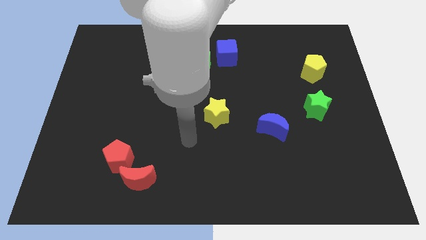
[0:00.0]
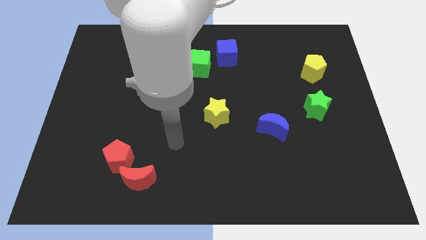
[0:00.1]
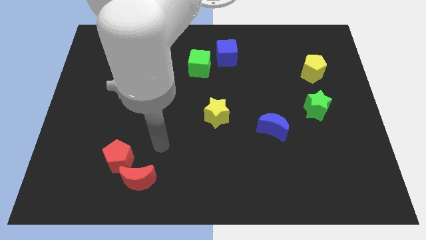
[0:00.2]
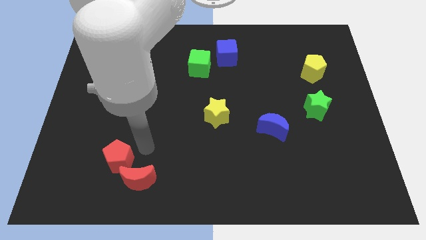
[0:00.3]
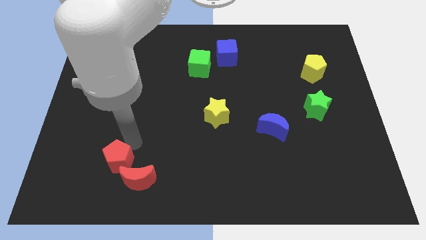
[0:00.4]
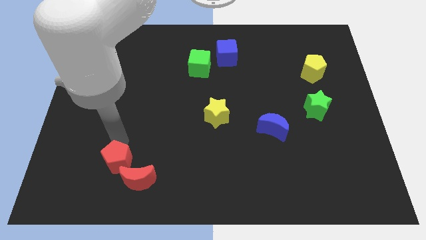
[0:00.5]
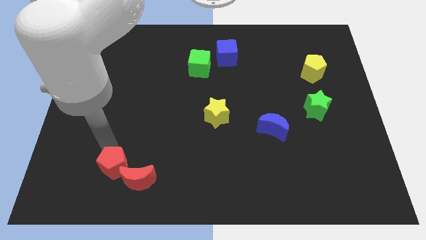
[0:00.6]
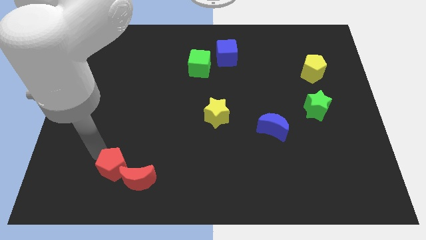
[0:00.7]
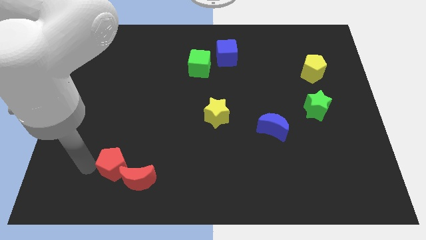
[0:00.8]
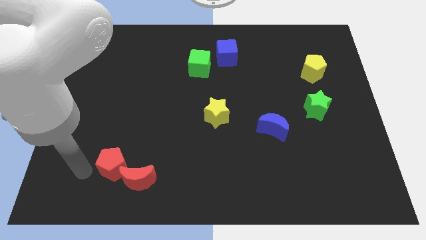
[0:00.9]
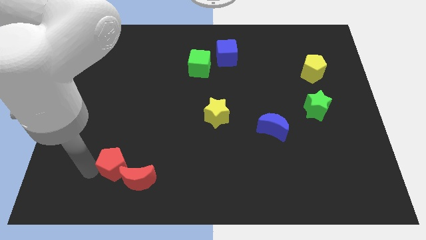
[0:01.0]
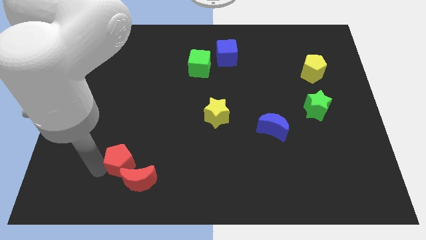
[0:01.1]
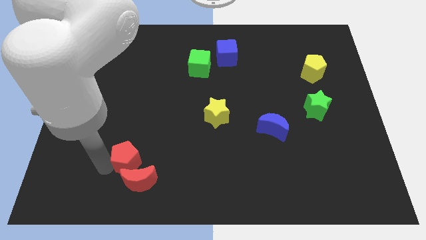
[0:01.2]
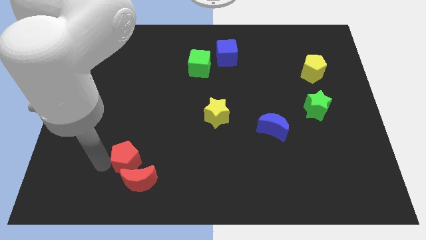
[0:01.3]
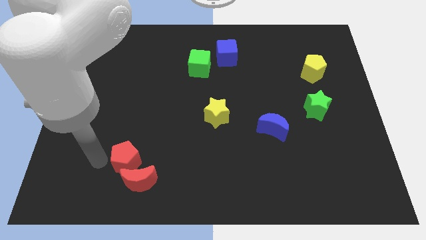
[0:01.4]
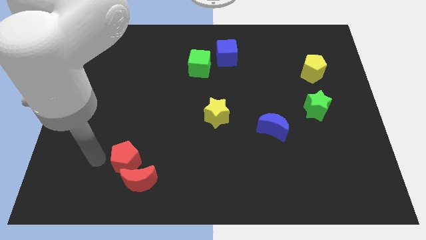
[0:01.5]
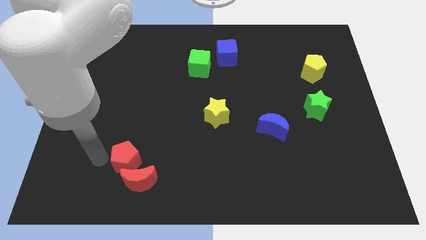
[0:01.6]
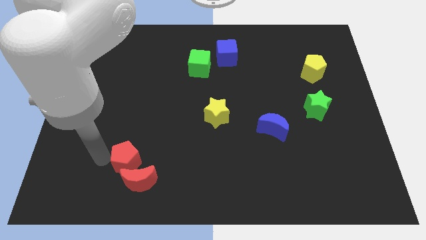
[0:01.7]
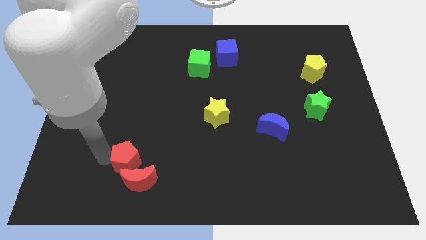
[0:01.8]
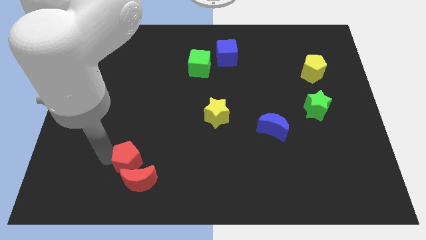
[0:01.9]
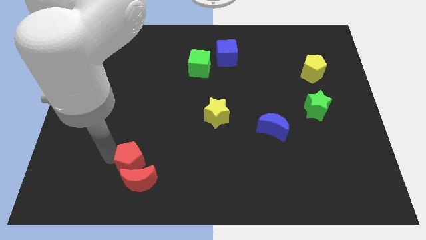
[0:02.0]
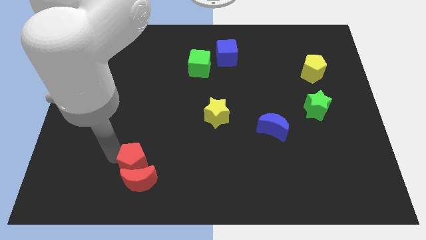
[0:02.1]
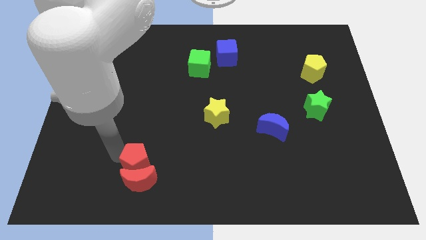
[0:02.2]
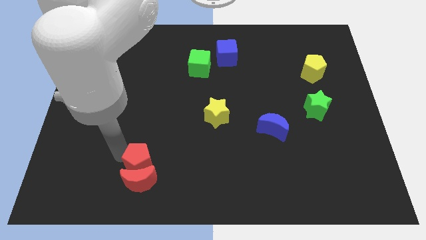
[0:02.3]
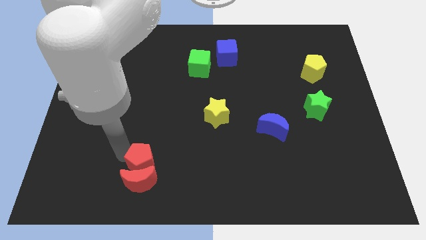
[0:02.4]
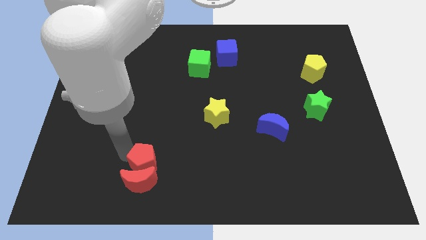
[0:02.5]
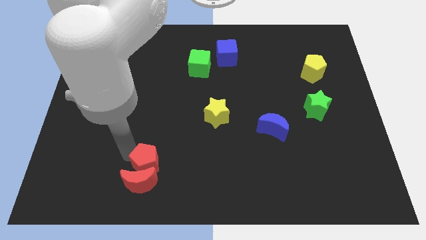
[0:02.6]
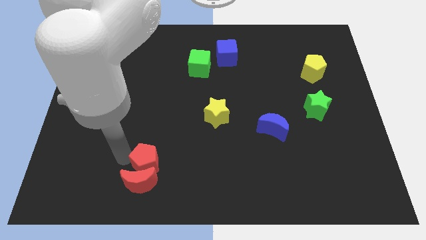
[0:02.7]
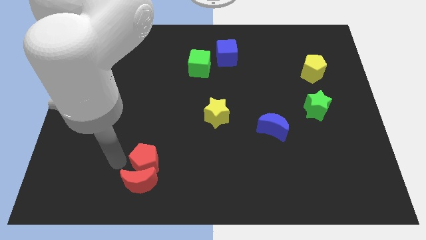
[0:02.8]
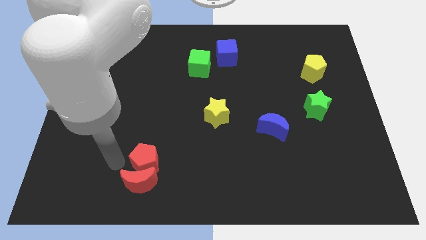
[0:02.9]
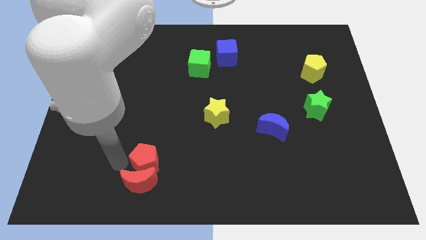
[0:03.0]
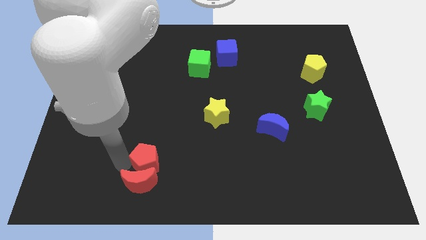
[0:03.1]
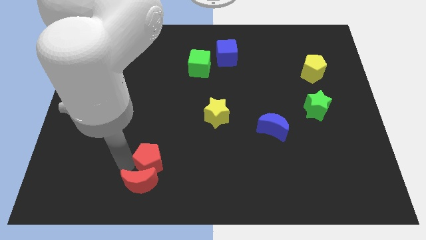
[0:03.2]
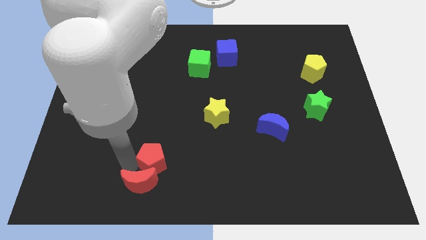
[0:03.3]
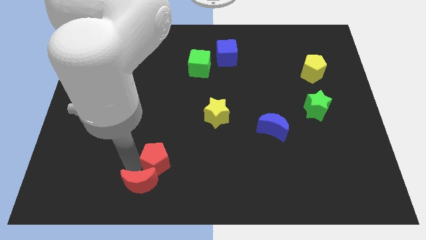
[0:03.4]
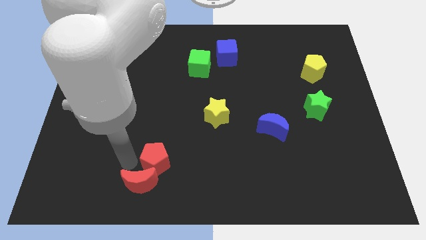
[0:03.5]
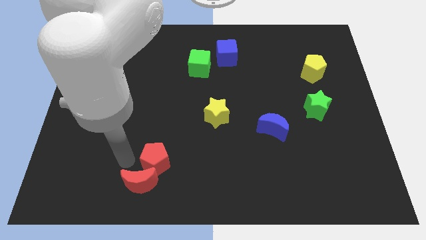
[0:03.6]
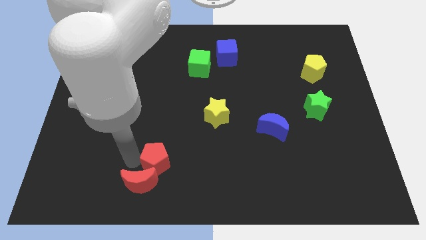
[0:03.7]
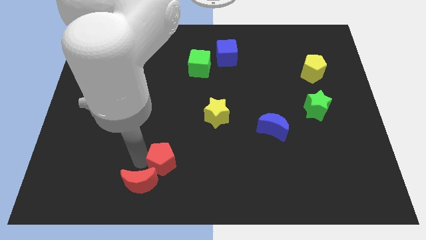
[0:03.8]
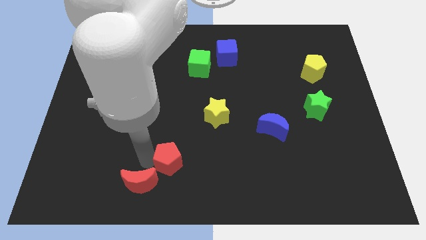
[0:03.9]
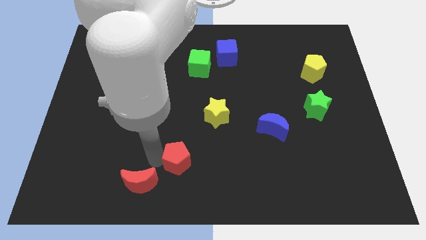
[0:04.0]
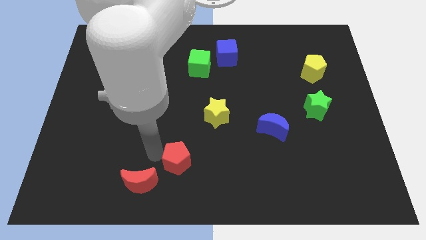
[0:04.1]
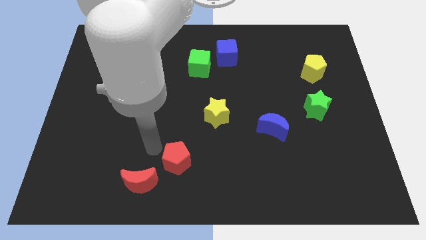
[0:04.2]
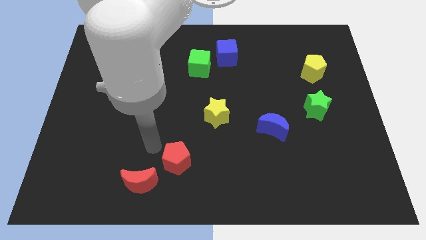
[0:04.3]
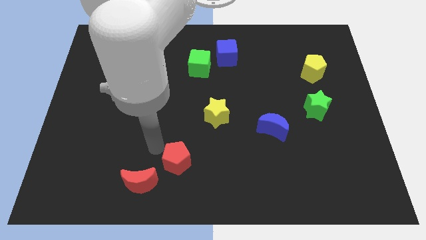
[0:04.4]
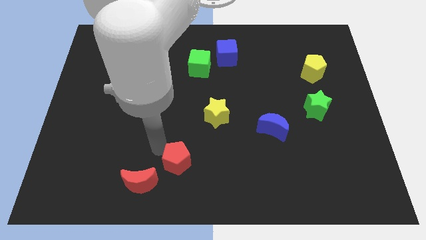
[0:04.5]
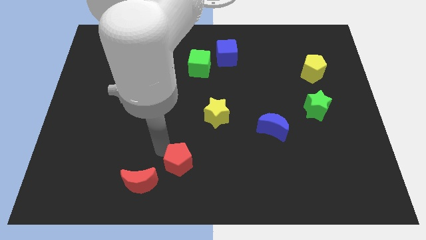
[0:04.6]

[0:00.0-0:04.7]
put the red pentagon to the bottom side

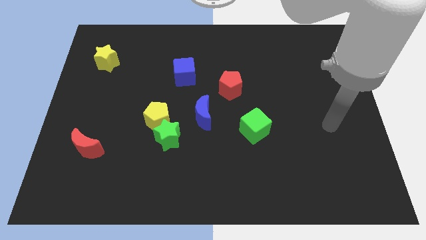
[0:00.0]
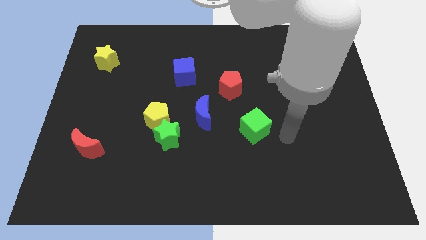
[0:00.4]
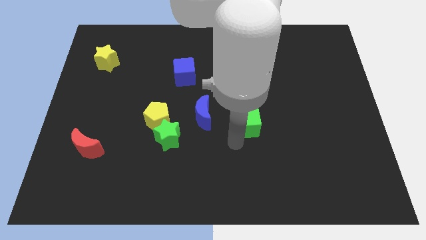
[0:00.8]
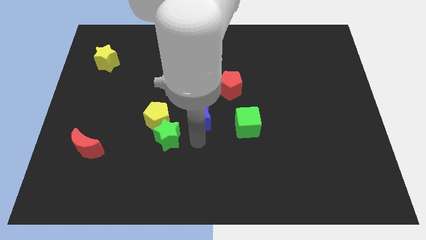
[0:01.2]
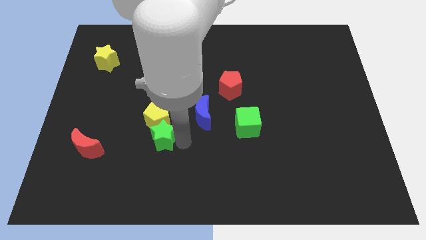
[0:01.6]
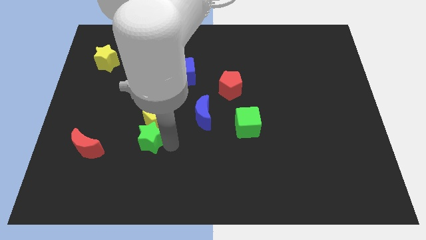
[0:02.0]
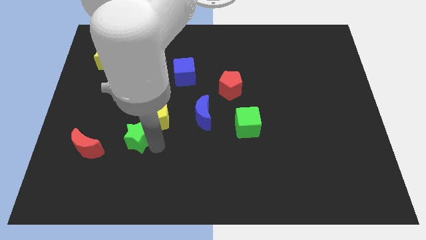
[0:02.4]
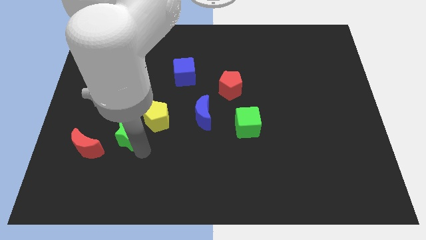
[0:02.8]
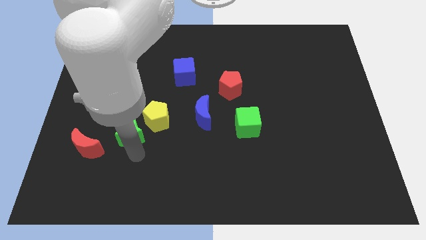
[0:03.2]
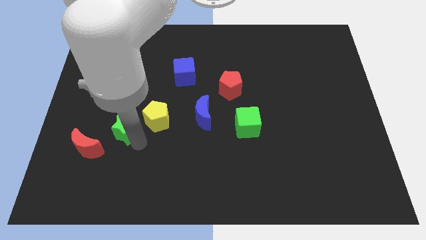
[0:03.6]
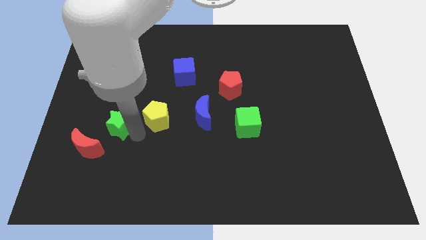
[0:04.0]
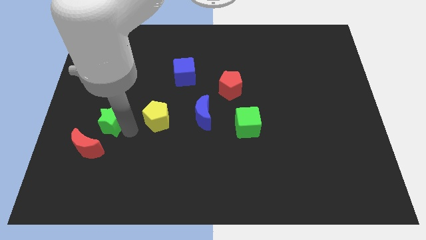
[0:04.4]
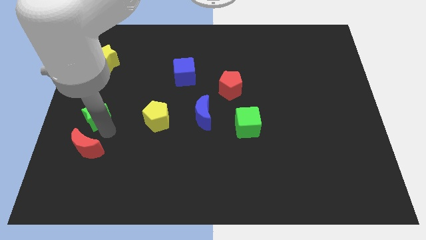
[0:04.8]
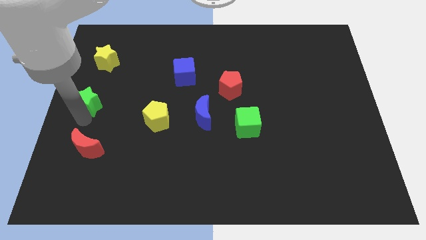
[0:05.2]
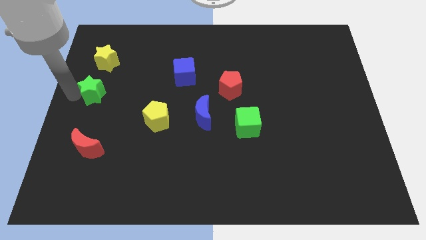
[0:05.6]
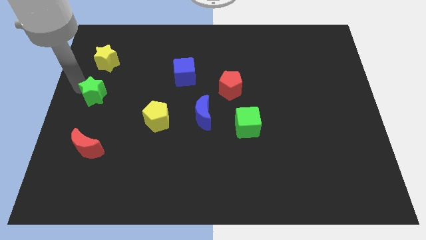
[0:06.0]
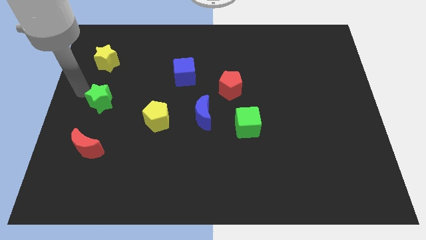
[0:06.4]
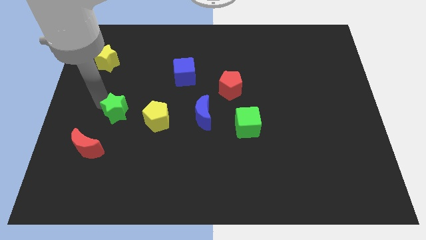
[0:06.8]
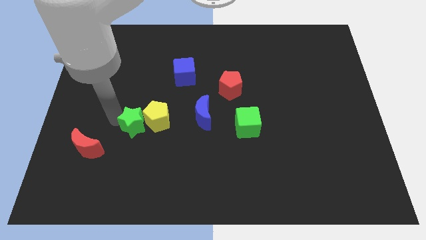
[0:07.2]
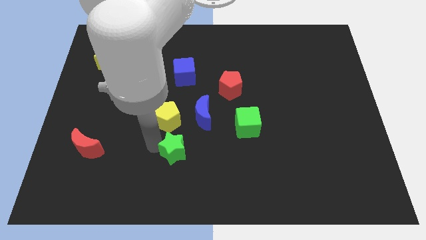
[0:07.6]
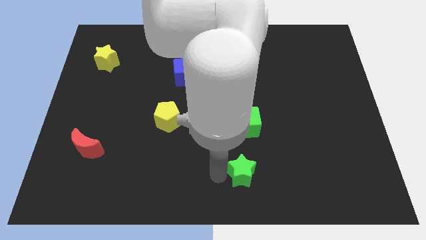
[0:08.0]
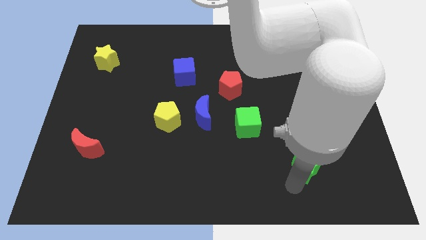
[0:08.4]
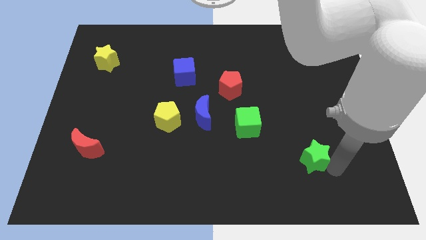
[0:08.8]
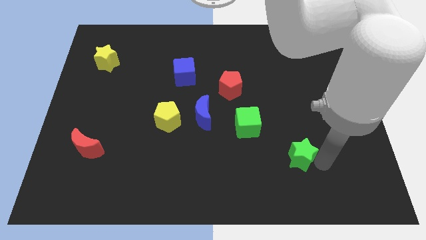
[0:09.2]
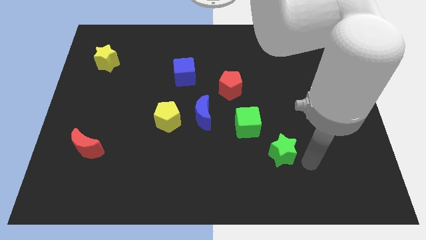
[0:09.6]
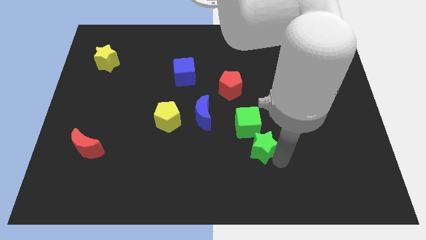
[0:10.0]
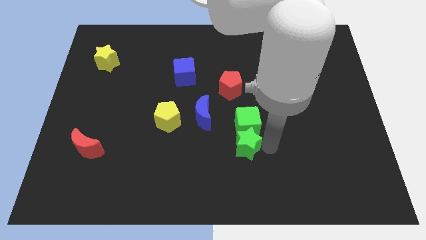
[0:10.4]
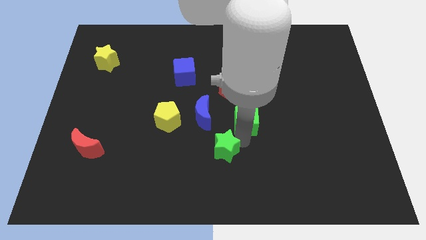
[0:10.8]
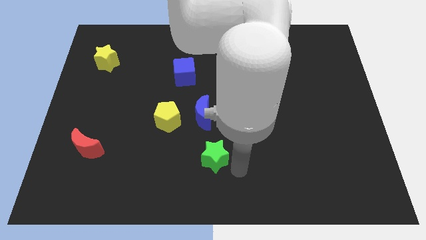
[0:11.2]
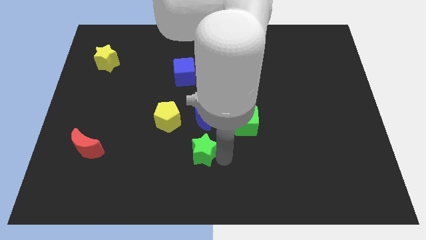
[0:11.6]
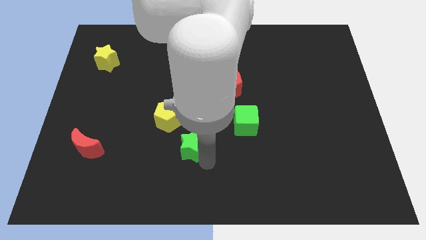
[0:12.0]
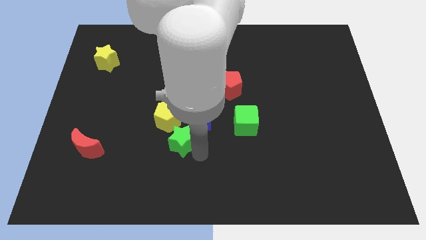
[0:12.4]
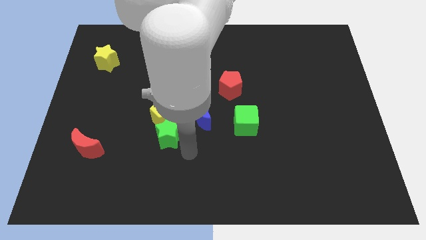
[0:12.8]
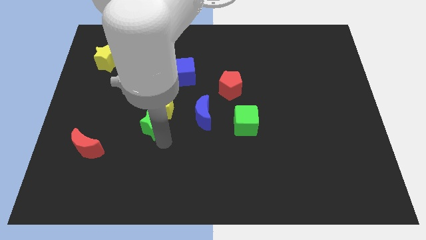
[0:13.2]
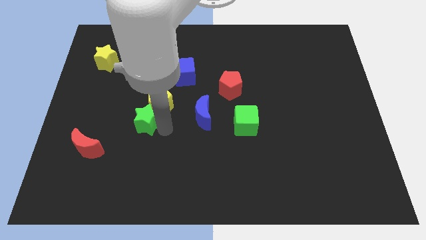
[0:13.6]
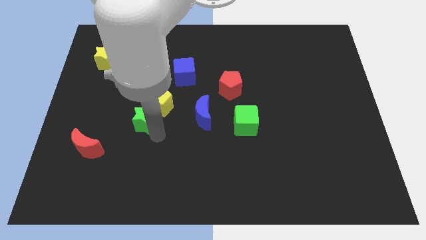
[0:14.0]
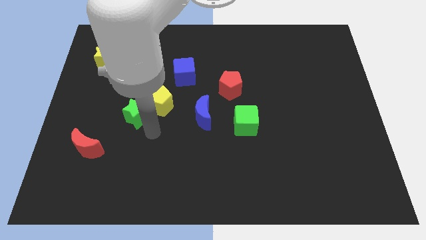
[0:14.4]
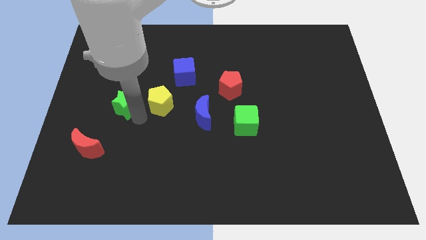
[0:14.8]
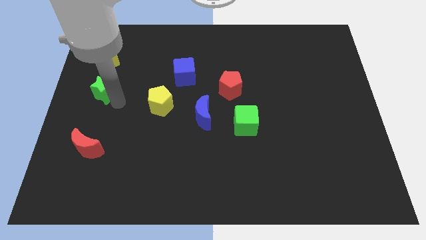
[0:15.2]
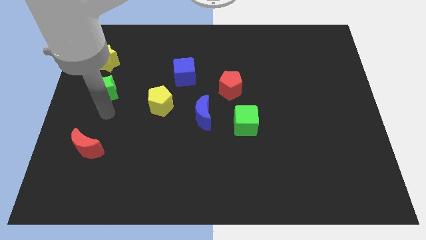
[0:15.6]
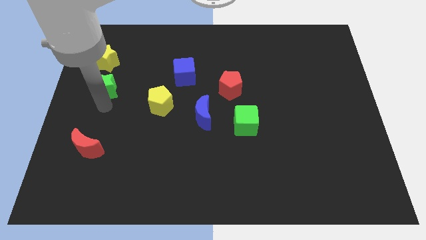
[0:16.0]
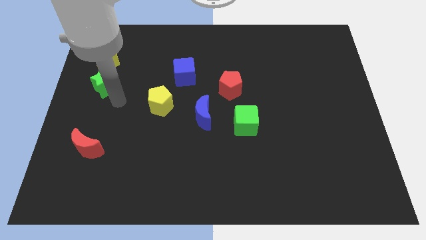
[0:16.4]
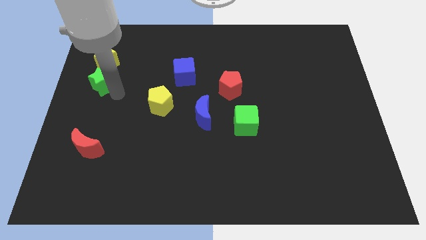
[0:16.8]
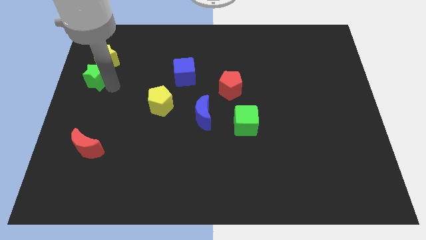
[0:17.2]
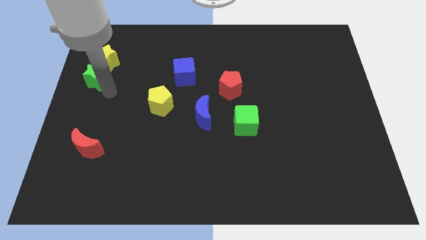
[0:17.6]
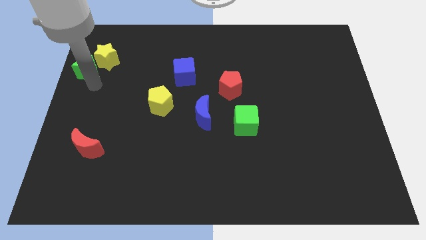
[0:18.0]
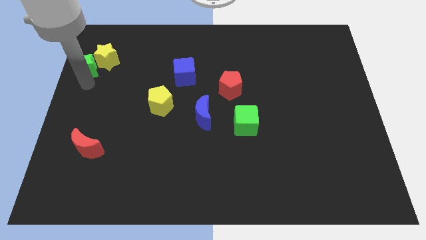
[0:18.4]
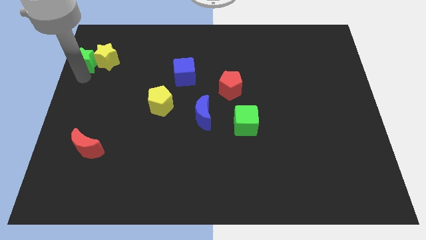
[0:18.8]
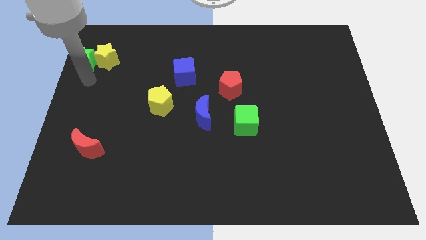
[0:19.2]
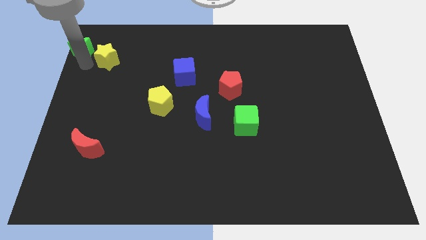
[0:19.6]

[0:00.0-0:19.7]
slide the green star to the top left of the board
